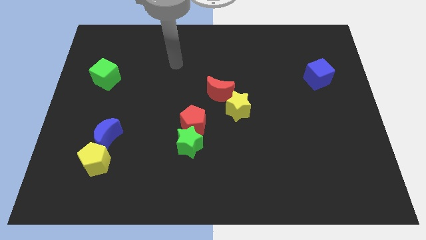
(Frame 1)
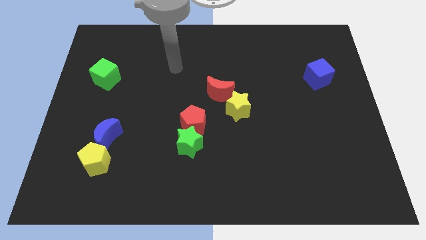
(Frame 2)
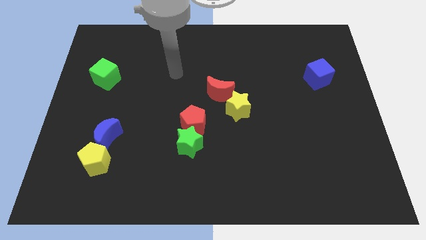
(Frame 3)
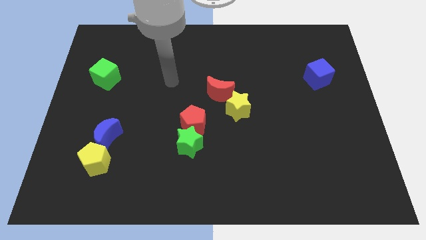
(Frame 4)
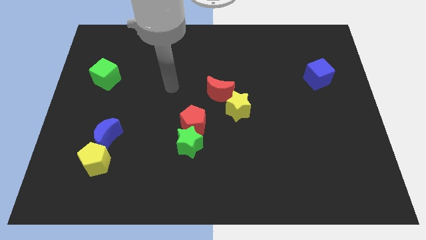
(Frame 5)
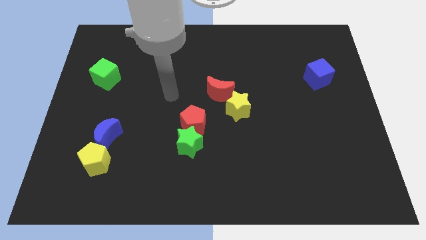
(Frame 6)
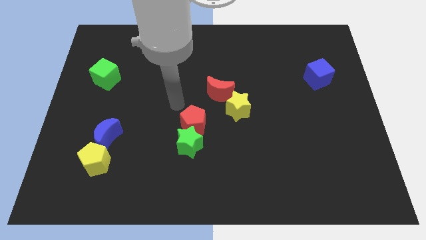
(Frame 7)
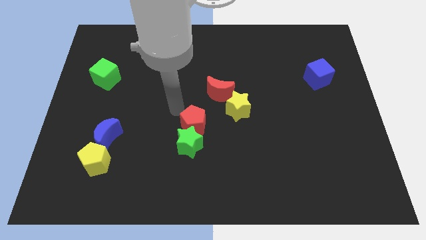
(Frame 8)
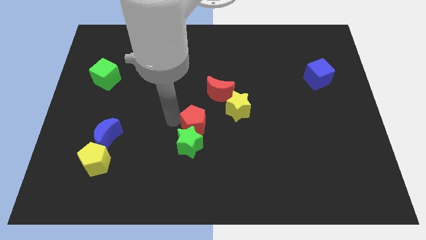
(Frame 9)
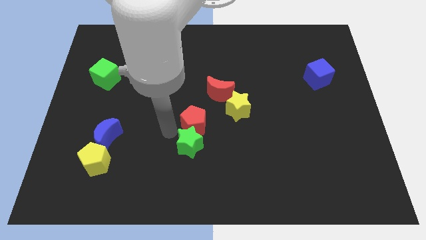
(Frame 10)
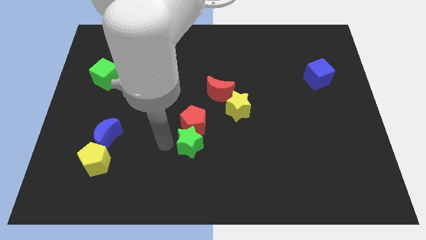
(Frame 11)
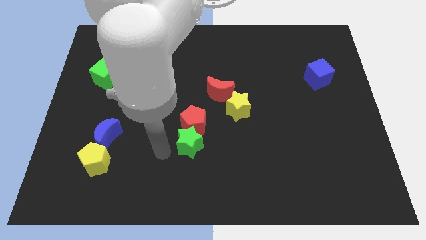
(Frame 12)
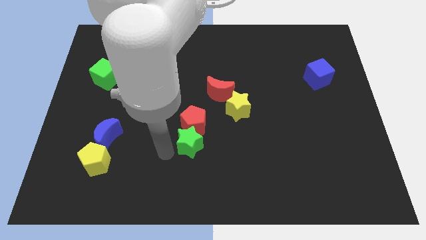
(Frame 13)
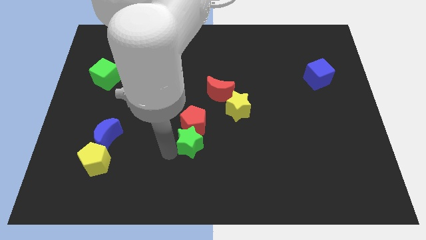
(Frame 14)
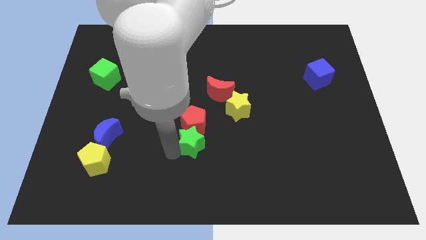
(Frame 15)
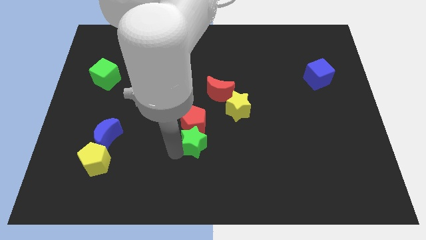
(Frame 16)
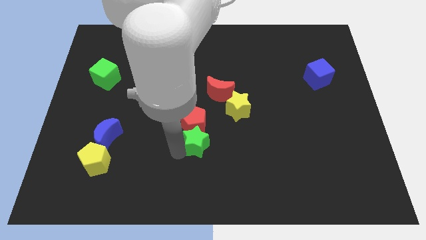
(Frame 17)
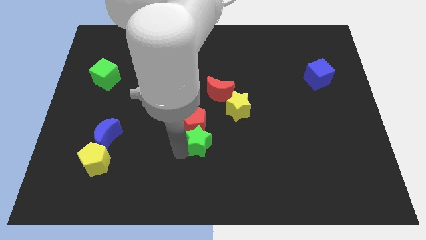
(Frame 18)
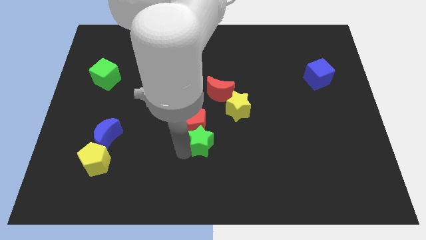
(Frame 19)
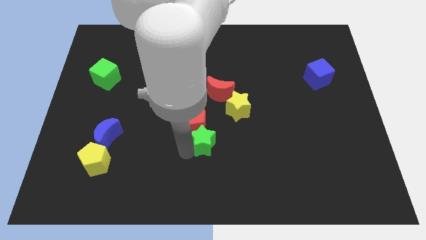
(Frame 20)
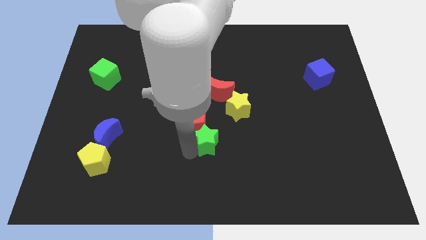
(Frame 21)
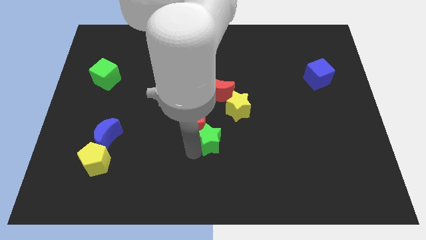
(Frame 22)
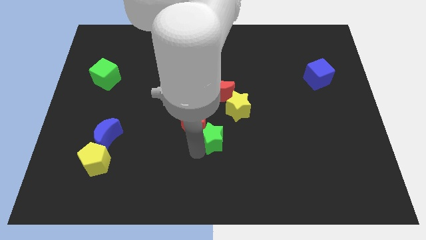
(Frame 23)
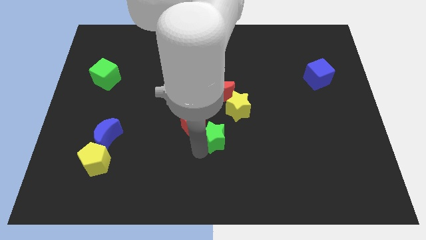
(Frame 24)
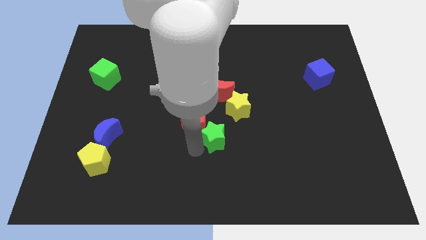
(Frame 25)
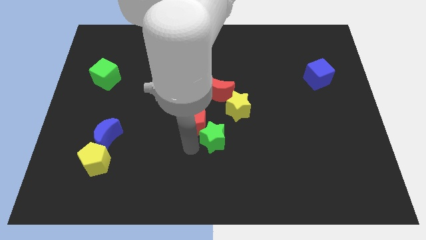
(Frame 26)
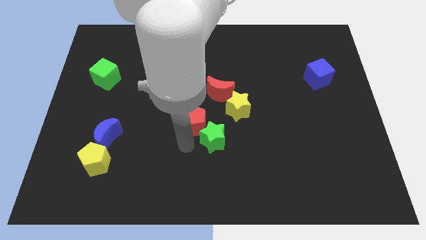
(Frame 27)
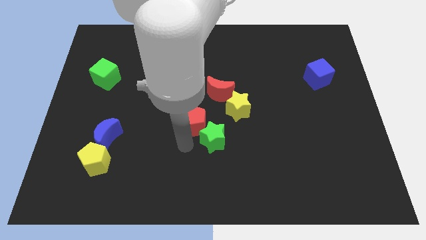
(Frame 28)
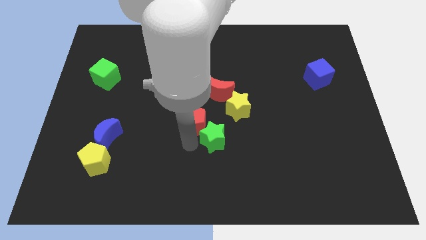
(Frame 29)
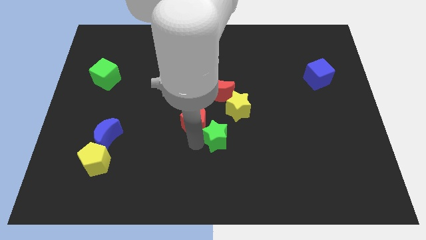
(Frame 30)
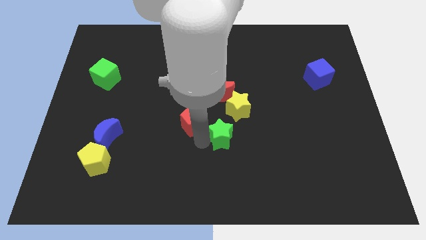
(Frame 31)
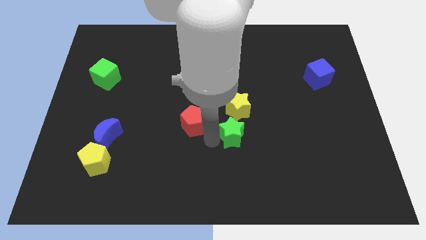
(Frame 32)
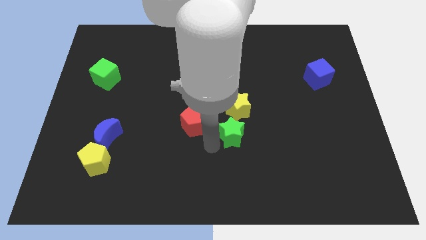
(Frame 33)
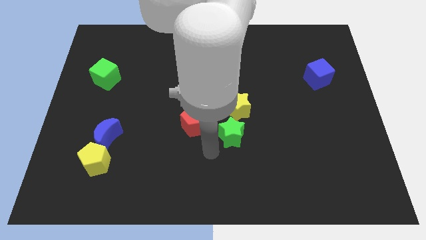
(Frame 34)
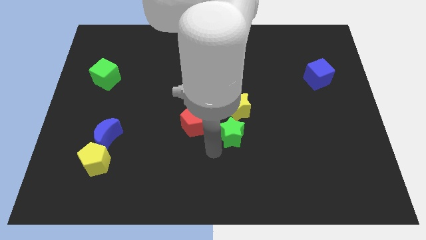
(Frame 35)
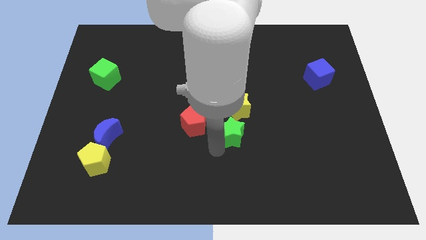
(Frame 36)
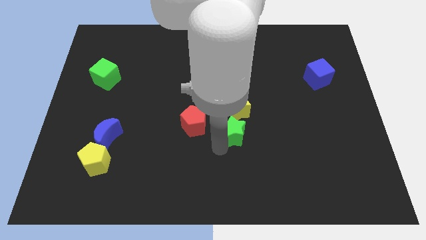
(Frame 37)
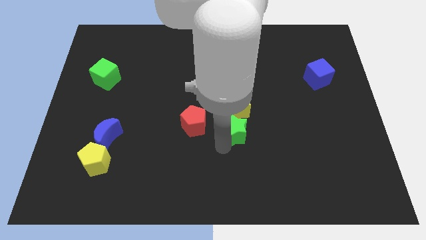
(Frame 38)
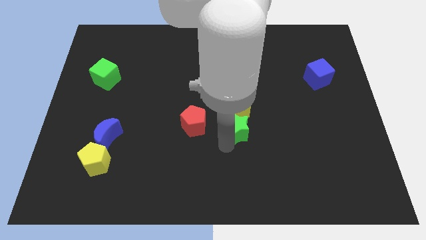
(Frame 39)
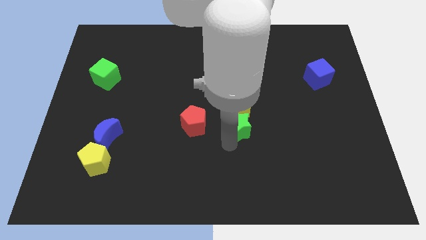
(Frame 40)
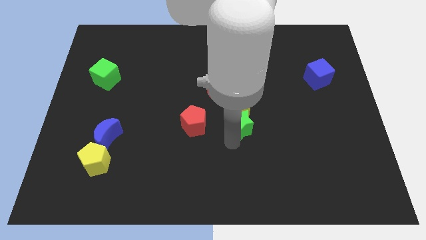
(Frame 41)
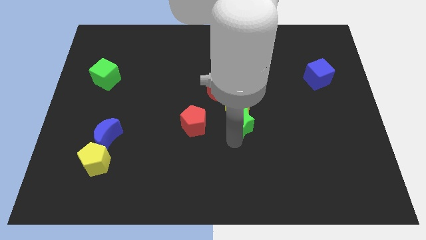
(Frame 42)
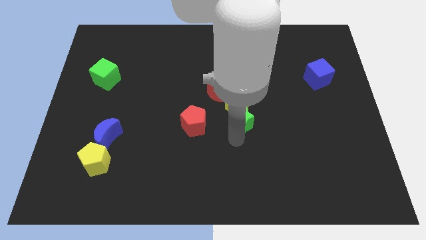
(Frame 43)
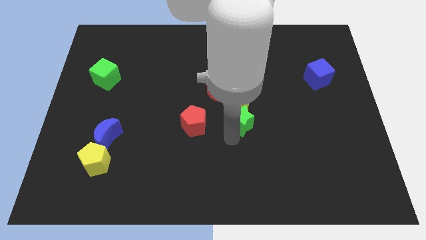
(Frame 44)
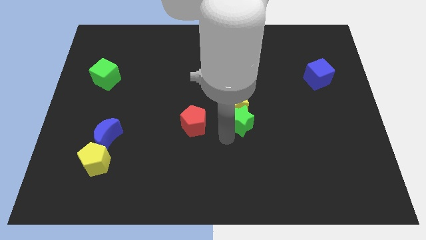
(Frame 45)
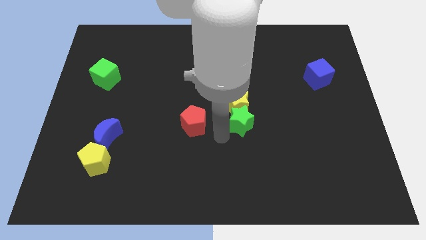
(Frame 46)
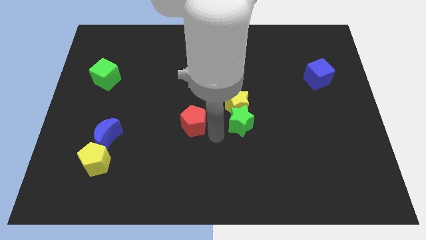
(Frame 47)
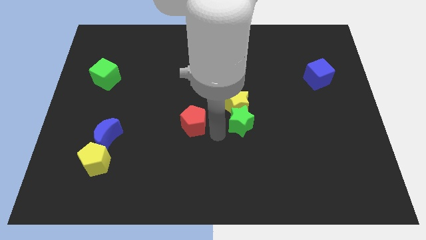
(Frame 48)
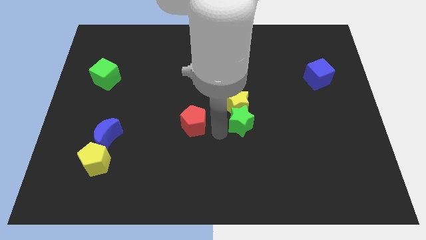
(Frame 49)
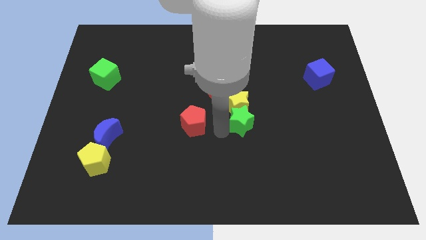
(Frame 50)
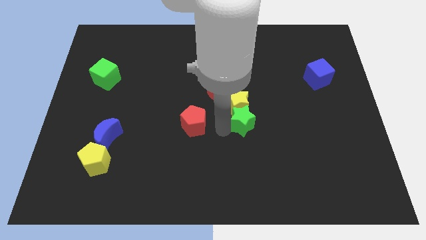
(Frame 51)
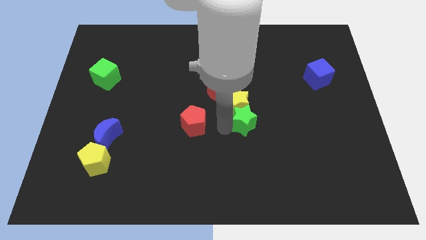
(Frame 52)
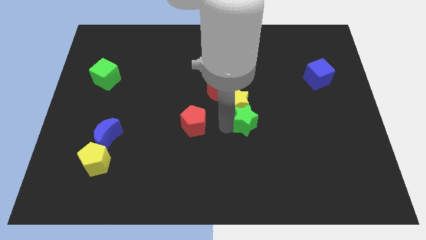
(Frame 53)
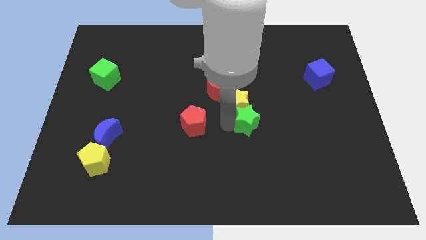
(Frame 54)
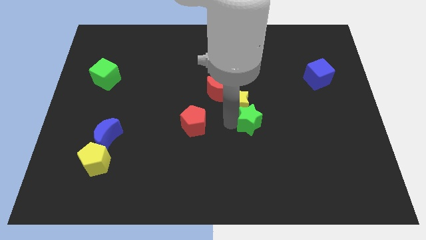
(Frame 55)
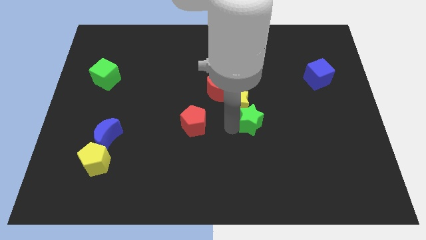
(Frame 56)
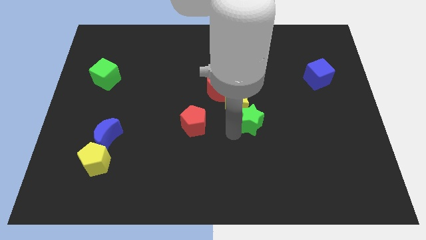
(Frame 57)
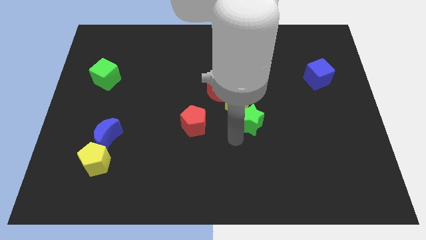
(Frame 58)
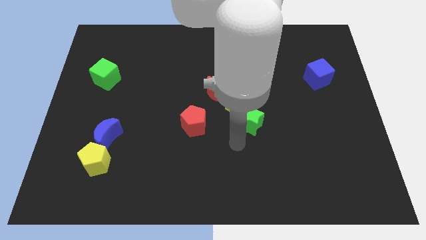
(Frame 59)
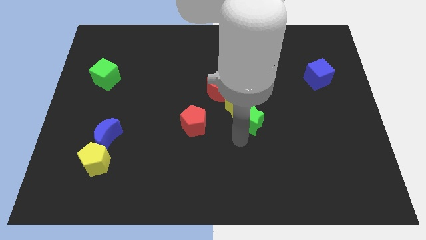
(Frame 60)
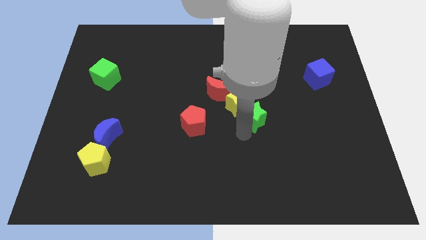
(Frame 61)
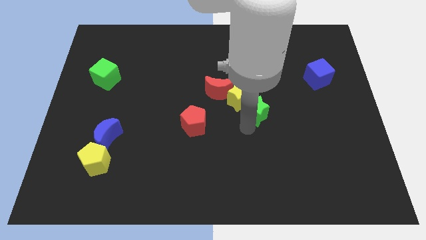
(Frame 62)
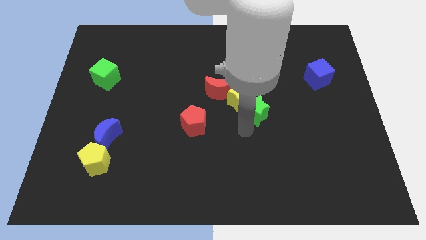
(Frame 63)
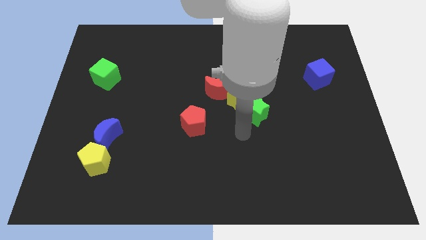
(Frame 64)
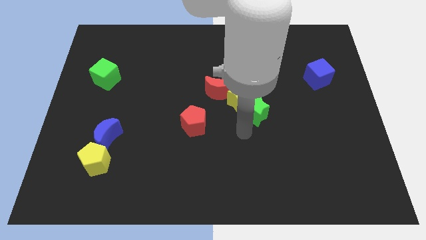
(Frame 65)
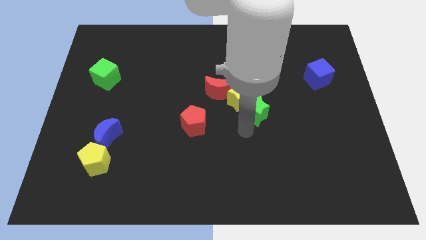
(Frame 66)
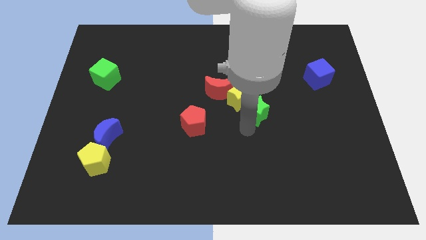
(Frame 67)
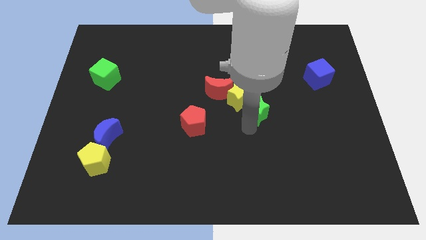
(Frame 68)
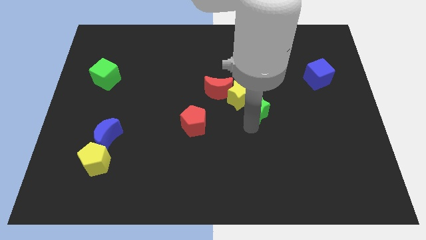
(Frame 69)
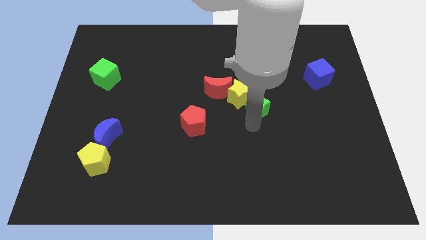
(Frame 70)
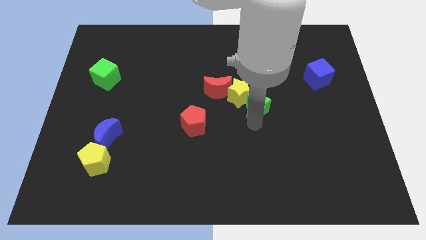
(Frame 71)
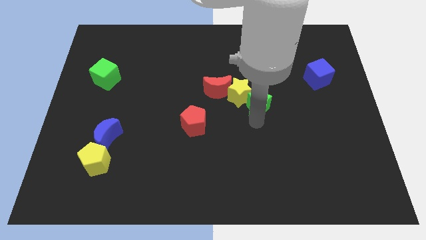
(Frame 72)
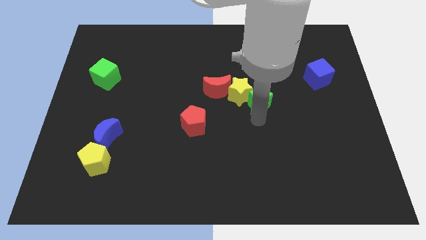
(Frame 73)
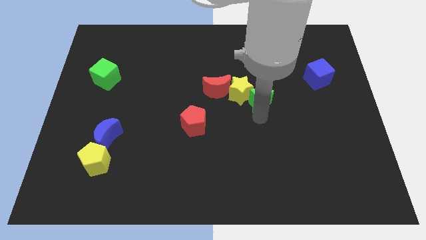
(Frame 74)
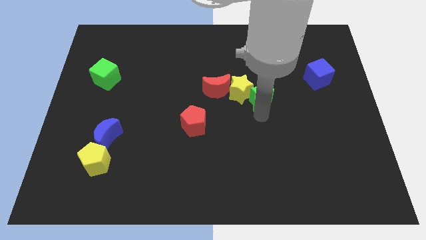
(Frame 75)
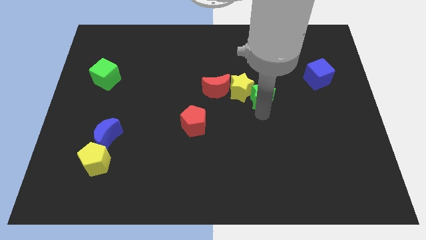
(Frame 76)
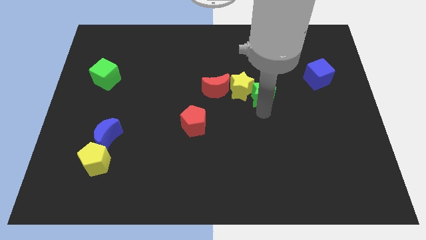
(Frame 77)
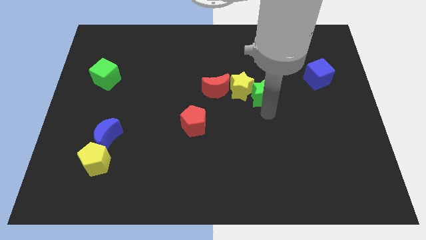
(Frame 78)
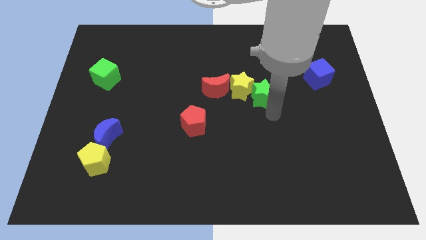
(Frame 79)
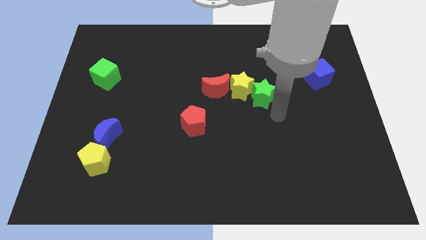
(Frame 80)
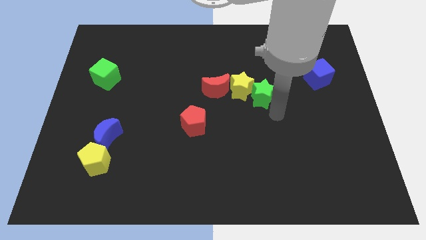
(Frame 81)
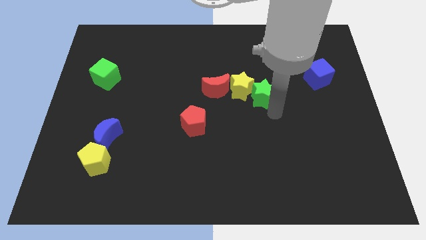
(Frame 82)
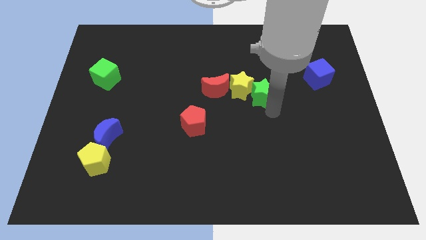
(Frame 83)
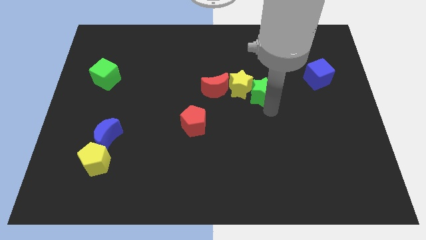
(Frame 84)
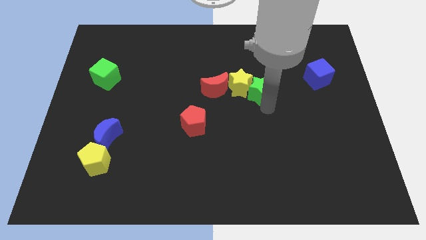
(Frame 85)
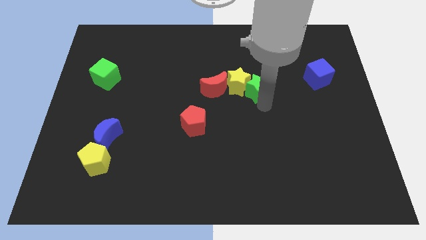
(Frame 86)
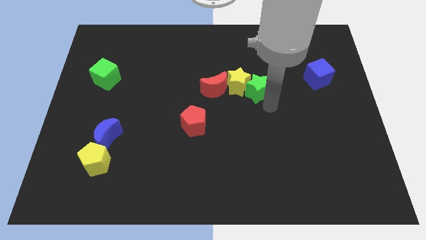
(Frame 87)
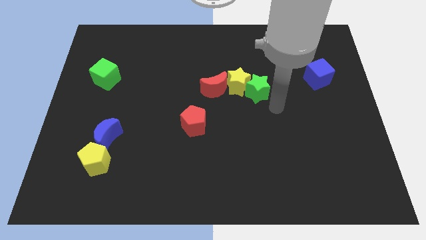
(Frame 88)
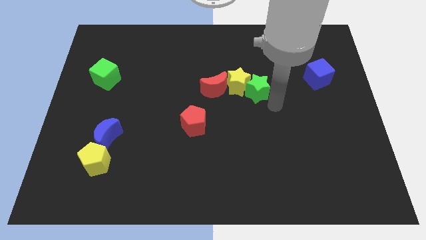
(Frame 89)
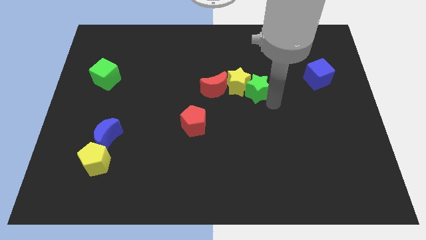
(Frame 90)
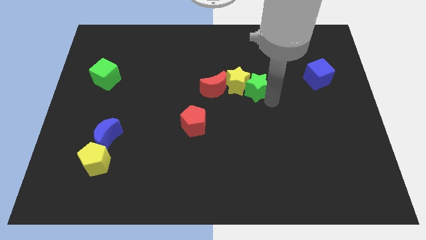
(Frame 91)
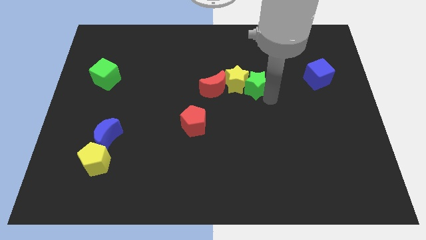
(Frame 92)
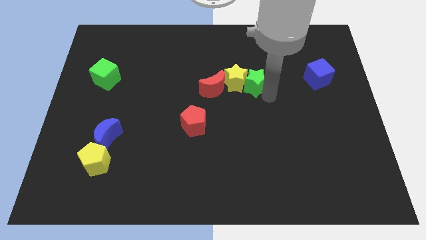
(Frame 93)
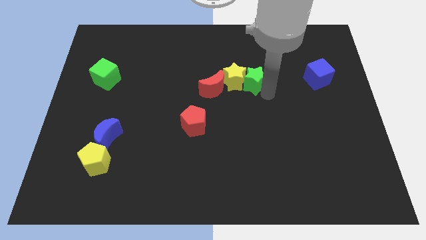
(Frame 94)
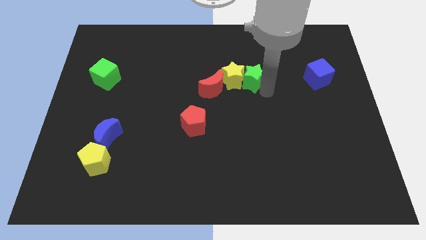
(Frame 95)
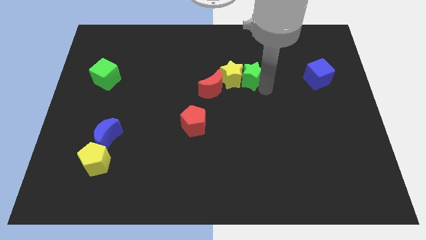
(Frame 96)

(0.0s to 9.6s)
slide the green star diagonally up and to the right of the red moon
